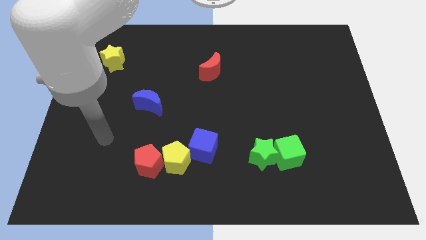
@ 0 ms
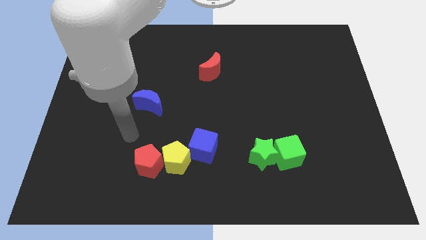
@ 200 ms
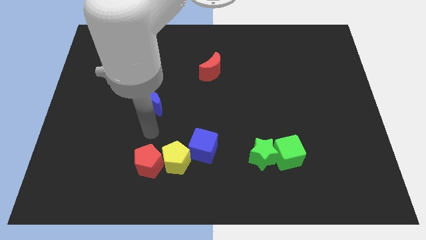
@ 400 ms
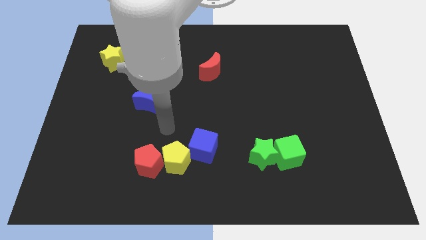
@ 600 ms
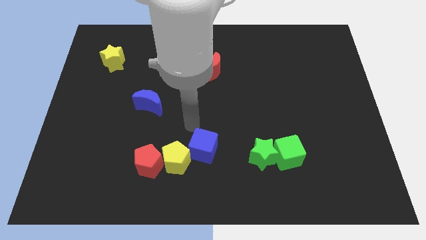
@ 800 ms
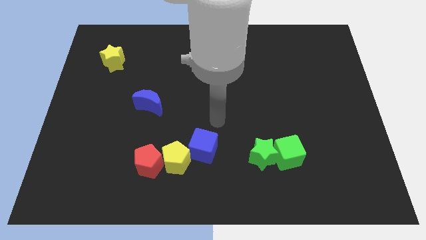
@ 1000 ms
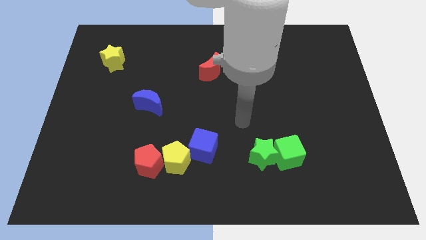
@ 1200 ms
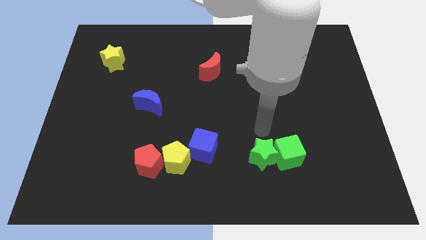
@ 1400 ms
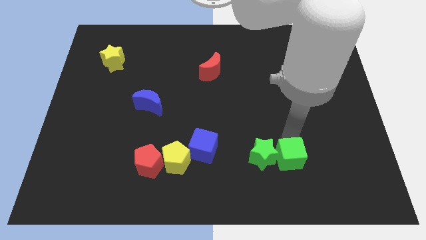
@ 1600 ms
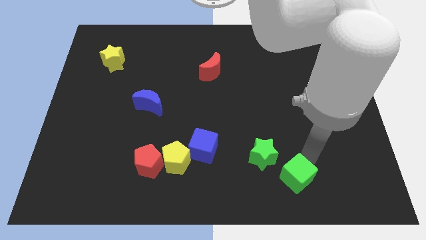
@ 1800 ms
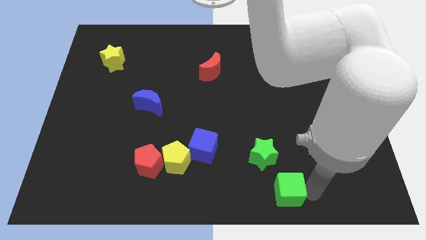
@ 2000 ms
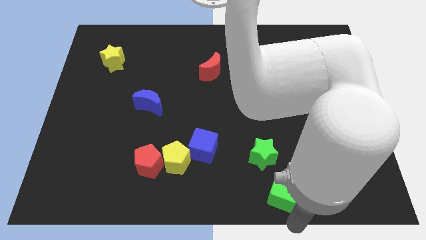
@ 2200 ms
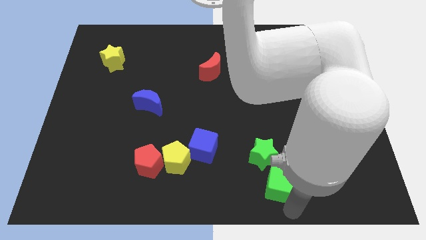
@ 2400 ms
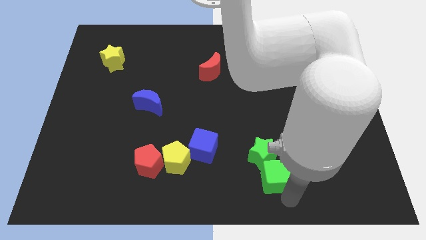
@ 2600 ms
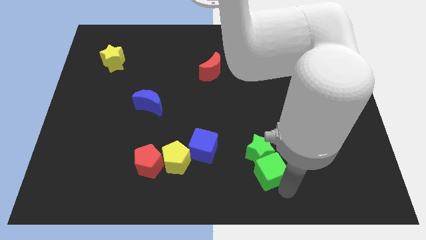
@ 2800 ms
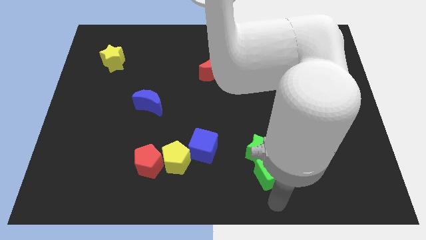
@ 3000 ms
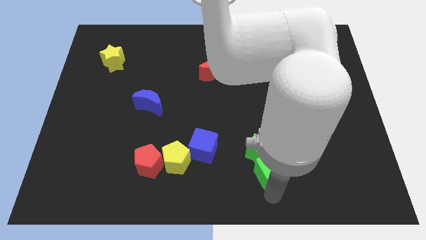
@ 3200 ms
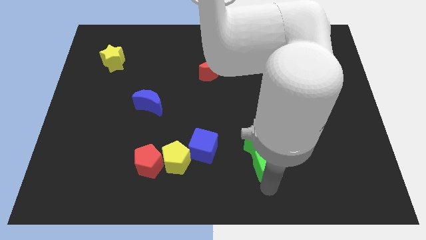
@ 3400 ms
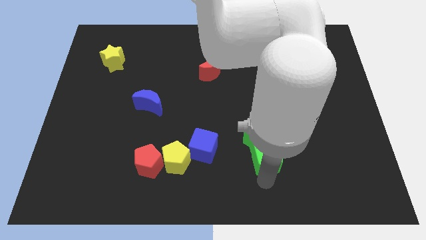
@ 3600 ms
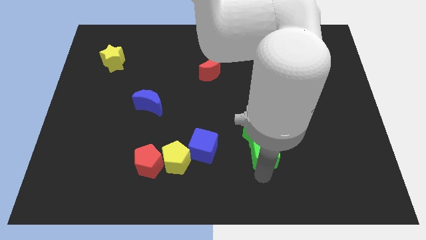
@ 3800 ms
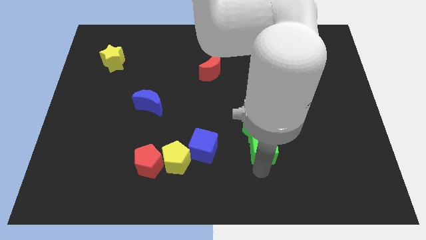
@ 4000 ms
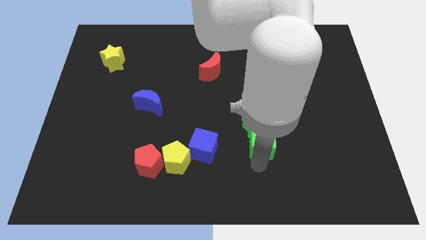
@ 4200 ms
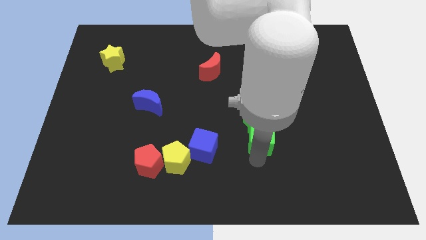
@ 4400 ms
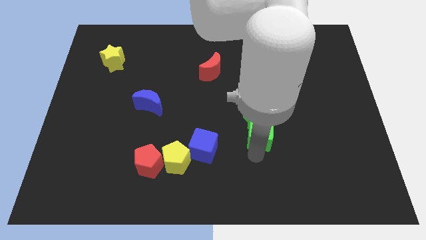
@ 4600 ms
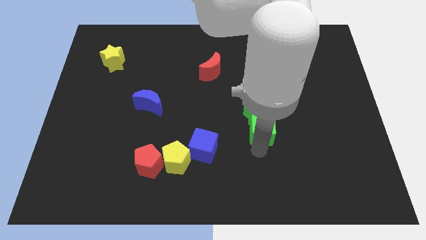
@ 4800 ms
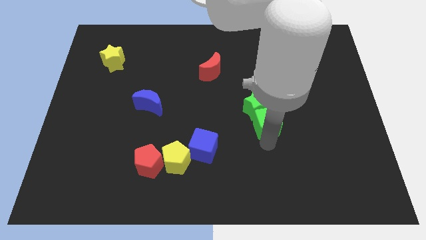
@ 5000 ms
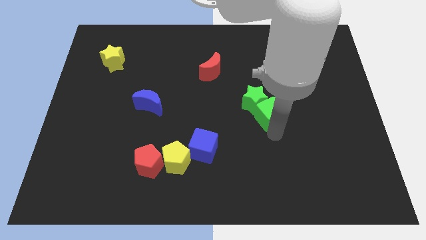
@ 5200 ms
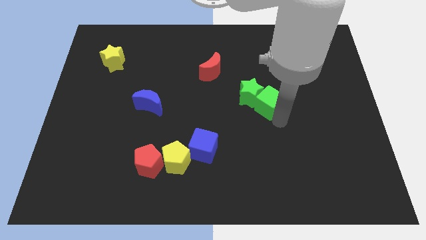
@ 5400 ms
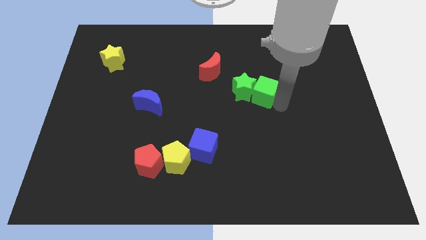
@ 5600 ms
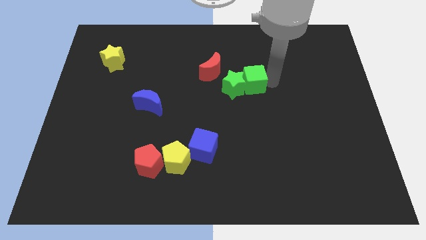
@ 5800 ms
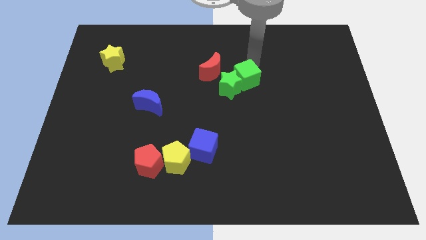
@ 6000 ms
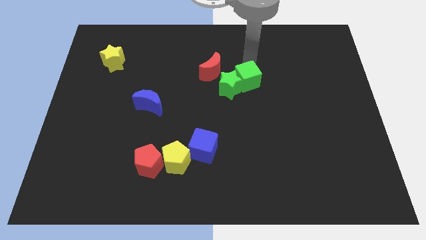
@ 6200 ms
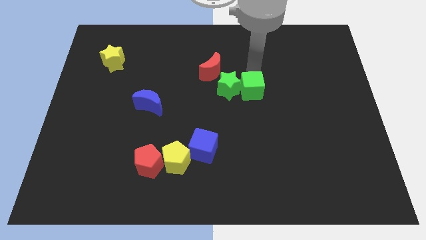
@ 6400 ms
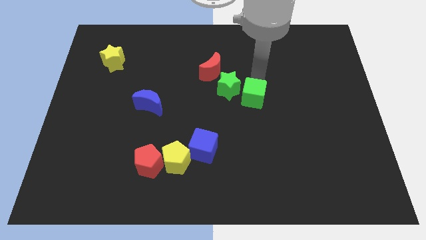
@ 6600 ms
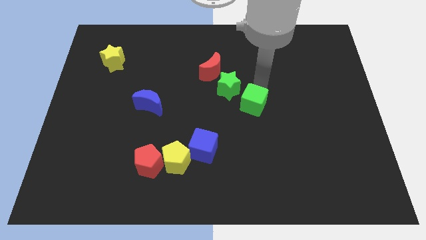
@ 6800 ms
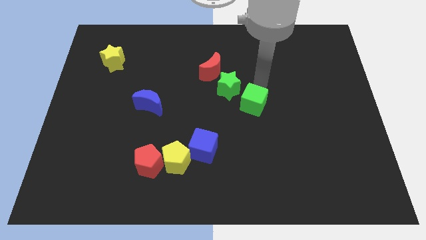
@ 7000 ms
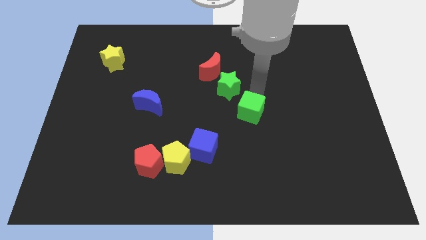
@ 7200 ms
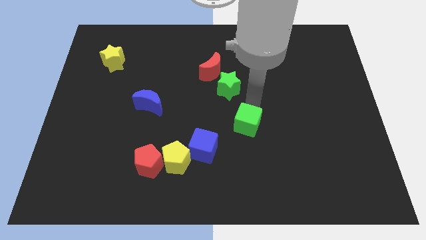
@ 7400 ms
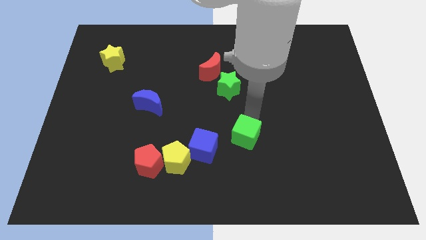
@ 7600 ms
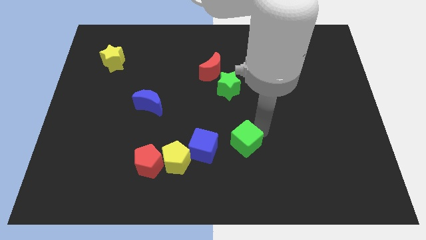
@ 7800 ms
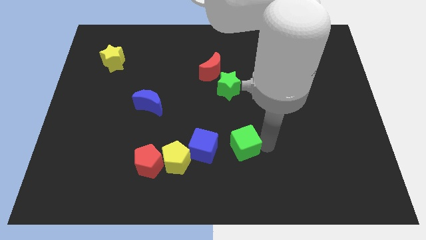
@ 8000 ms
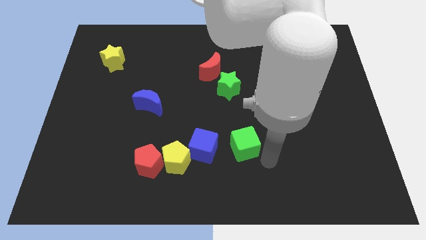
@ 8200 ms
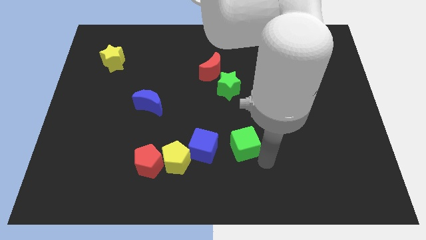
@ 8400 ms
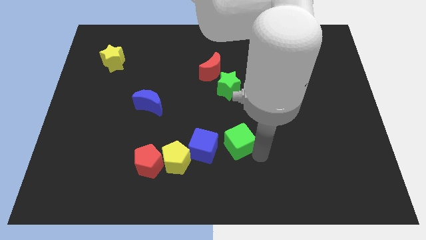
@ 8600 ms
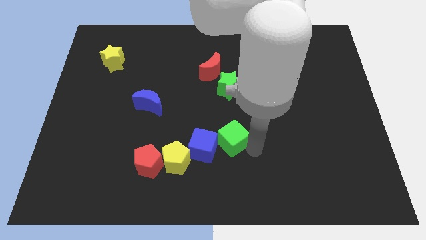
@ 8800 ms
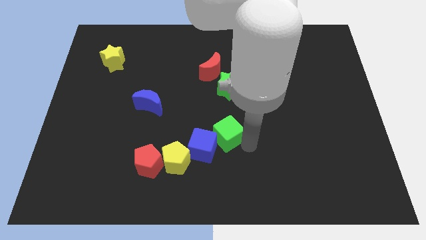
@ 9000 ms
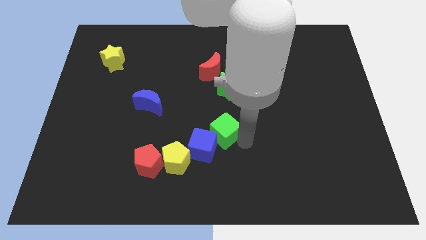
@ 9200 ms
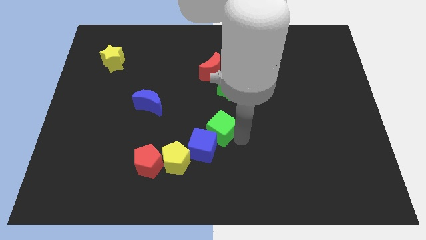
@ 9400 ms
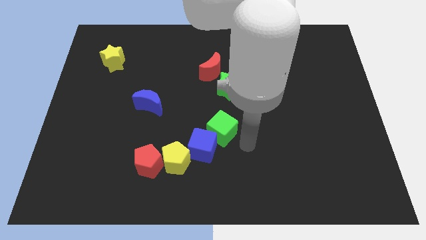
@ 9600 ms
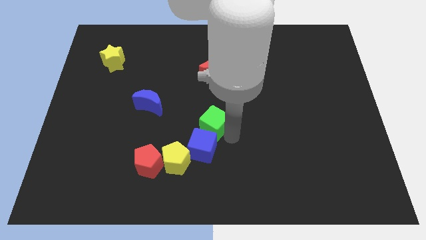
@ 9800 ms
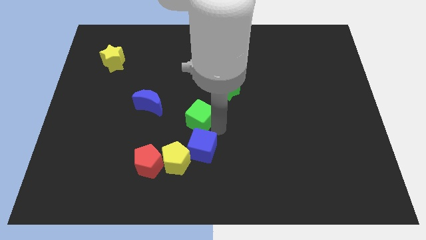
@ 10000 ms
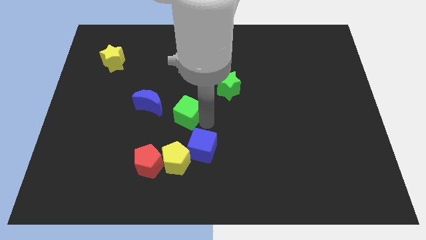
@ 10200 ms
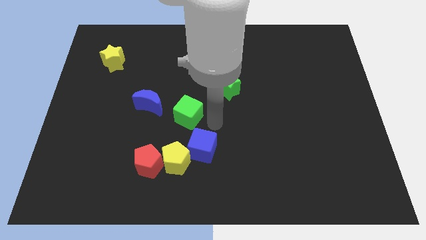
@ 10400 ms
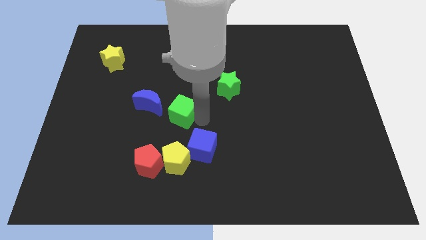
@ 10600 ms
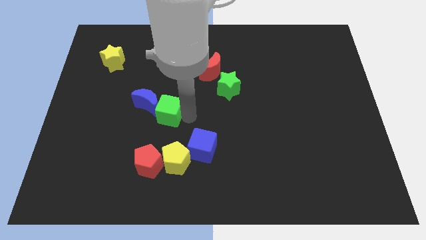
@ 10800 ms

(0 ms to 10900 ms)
put the green cube to the blue moon

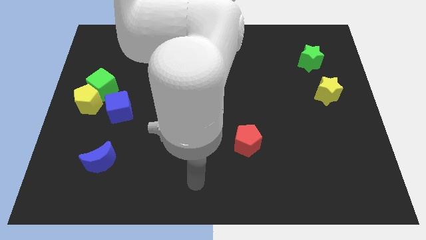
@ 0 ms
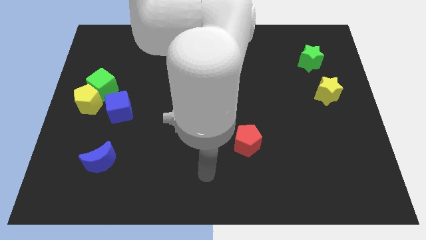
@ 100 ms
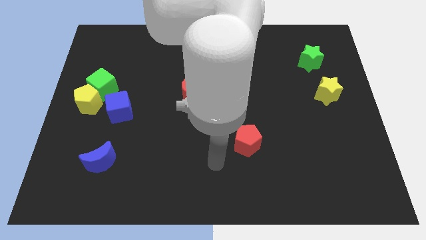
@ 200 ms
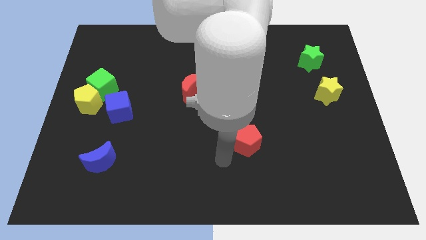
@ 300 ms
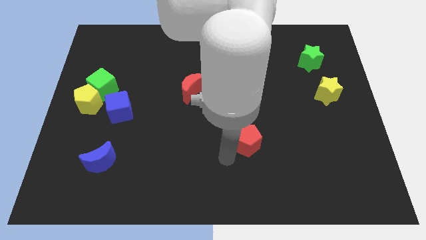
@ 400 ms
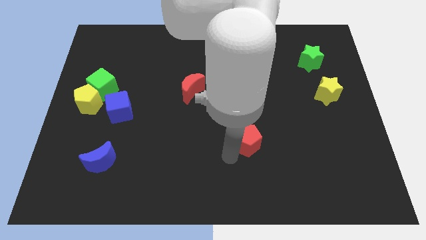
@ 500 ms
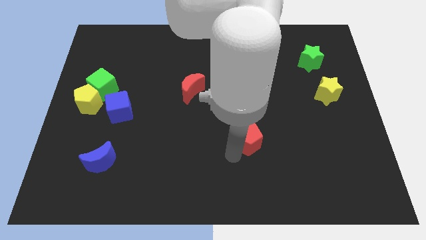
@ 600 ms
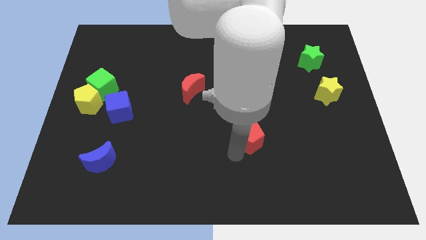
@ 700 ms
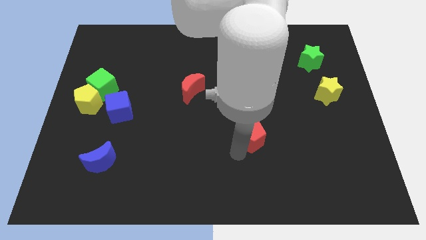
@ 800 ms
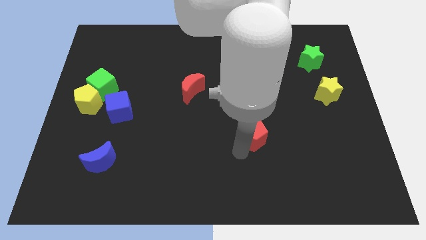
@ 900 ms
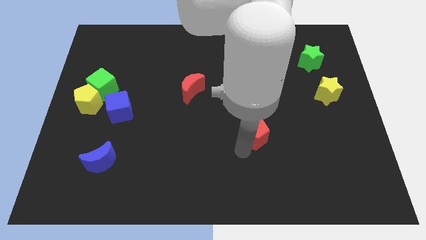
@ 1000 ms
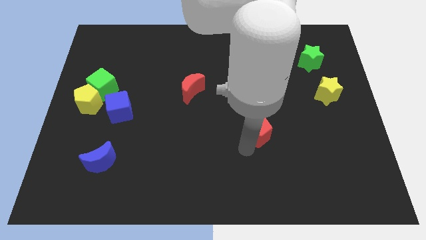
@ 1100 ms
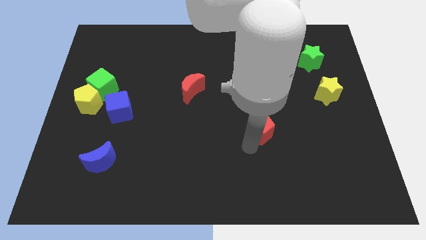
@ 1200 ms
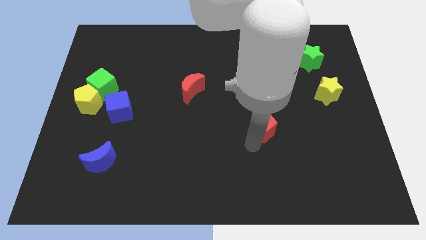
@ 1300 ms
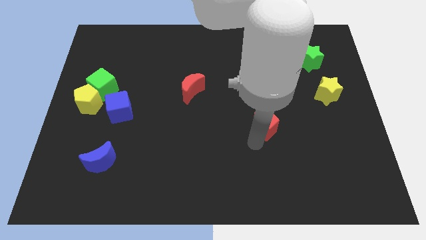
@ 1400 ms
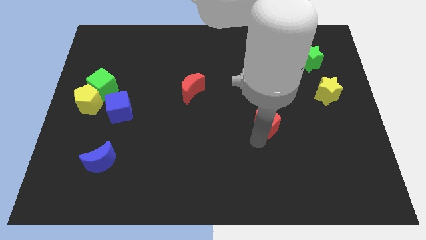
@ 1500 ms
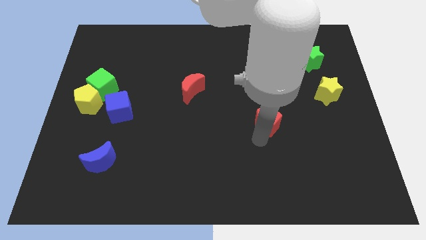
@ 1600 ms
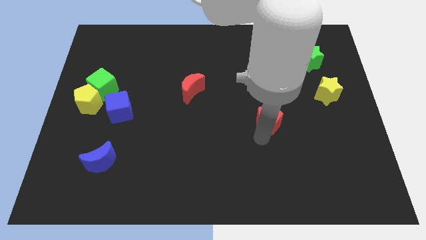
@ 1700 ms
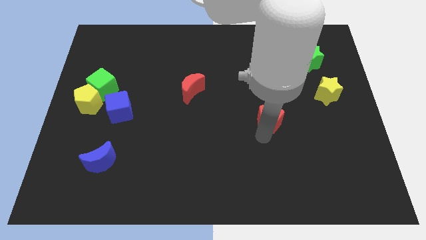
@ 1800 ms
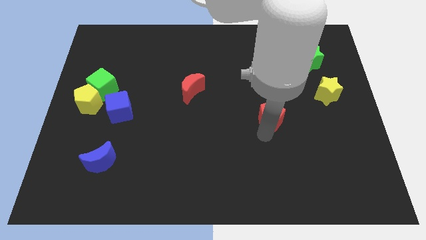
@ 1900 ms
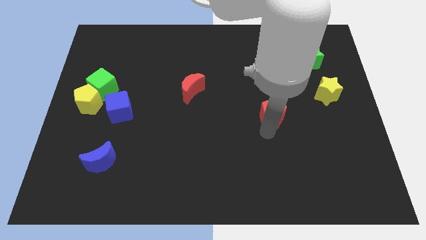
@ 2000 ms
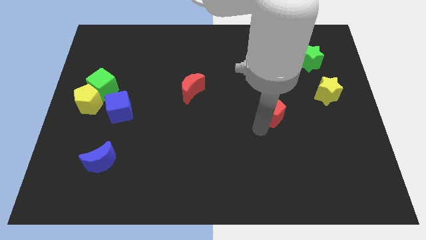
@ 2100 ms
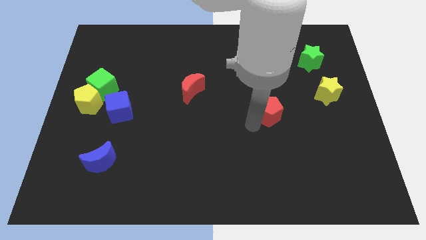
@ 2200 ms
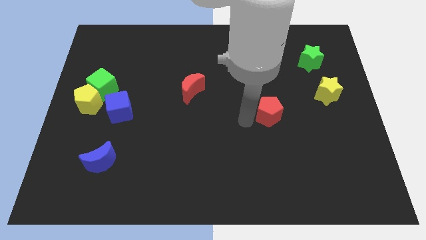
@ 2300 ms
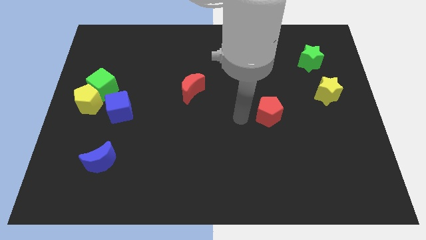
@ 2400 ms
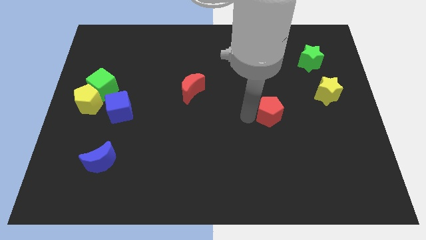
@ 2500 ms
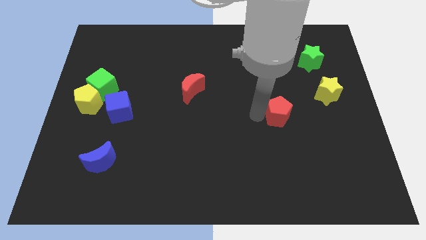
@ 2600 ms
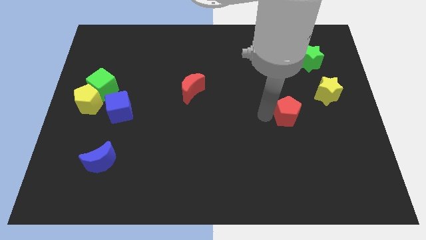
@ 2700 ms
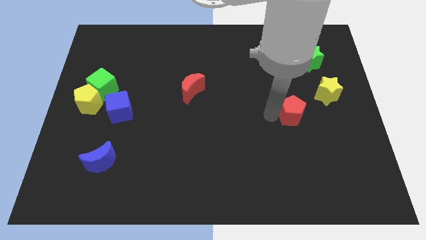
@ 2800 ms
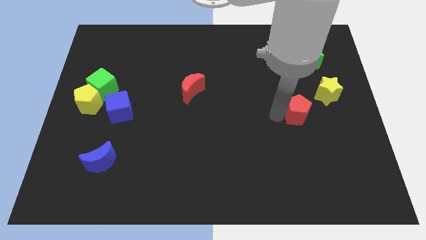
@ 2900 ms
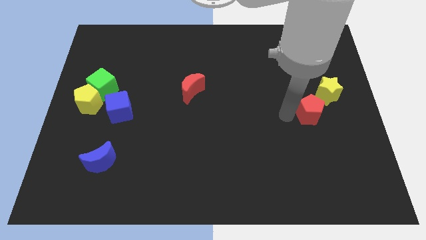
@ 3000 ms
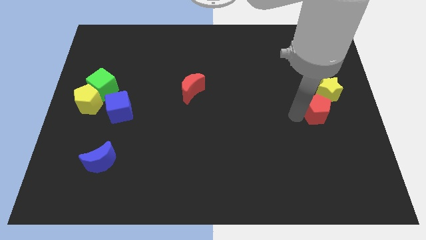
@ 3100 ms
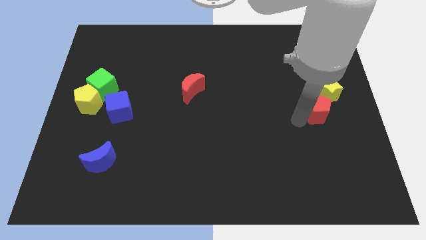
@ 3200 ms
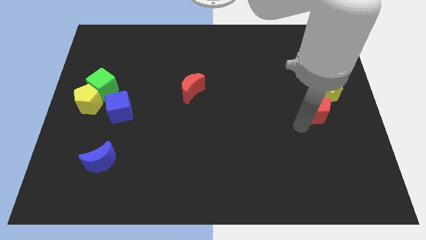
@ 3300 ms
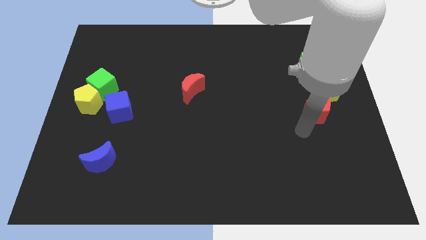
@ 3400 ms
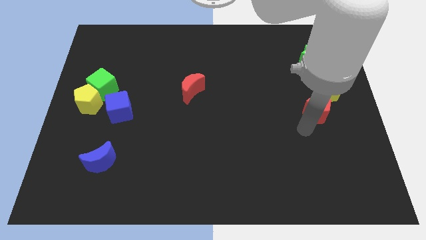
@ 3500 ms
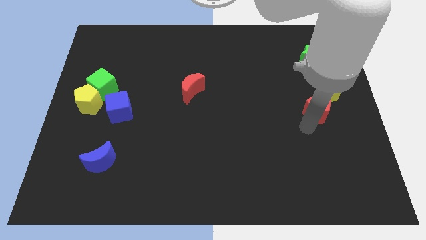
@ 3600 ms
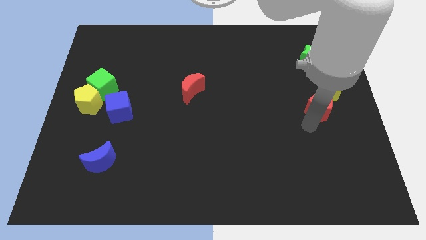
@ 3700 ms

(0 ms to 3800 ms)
move the red pentagon to the yellow star
